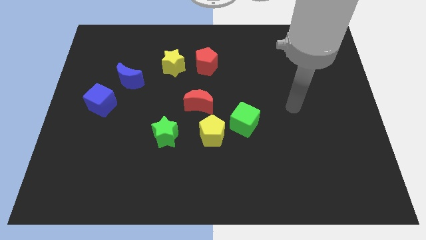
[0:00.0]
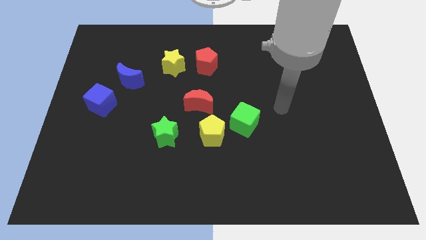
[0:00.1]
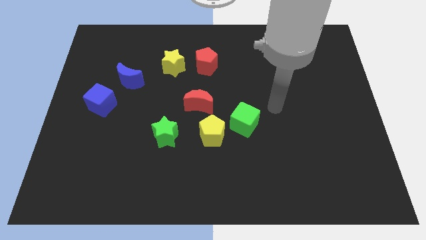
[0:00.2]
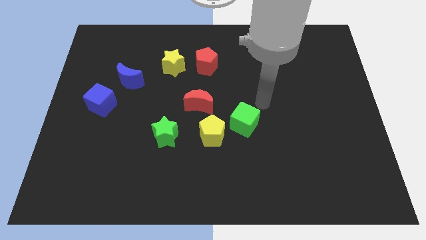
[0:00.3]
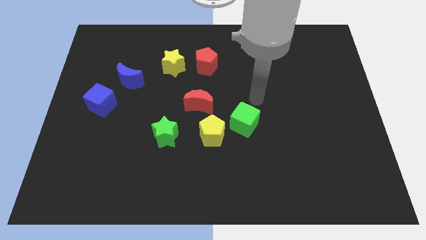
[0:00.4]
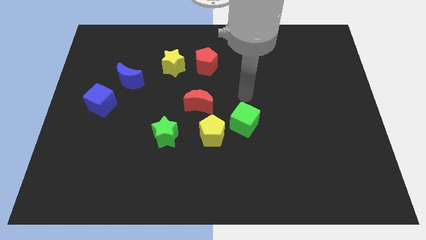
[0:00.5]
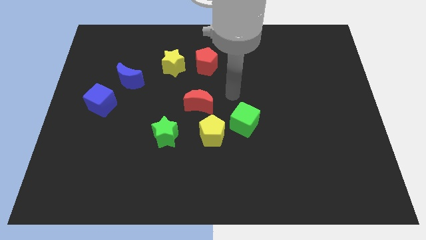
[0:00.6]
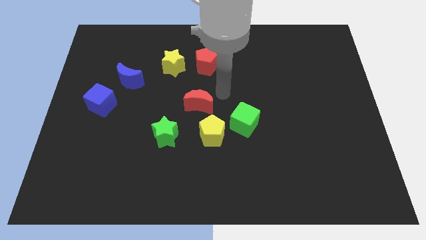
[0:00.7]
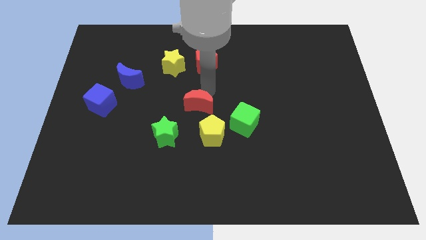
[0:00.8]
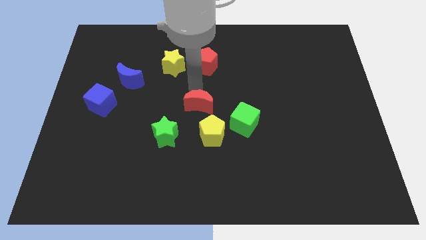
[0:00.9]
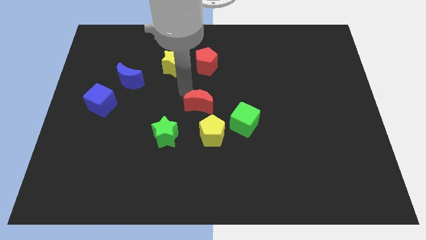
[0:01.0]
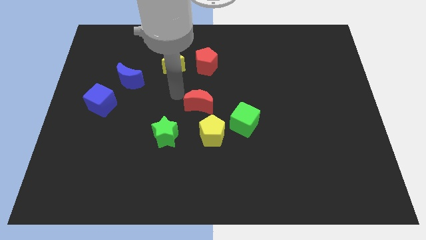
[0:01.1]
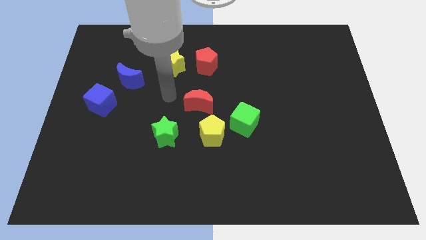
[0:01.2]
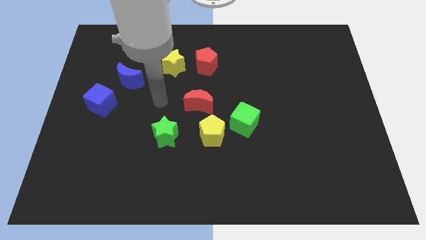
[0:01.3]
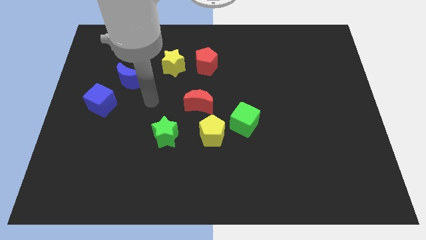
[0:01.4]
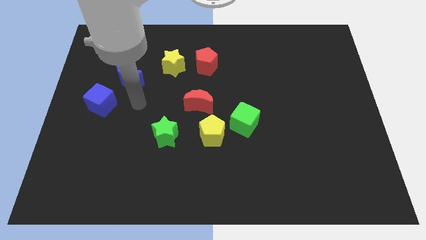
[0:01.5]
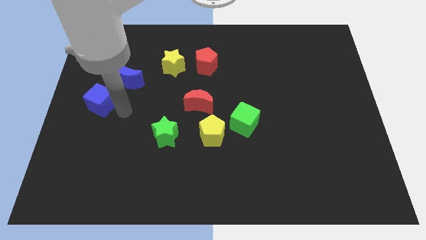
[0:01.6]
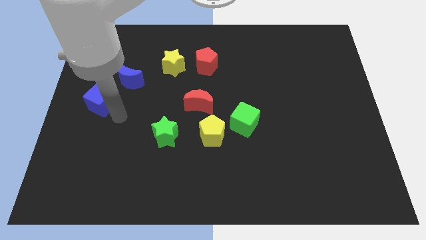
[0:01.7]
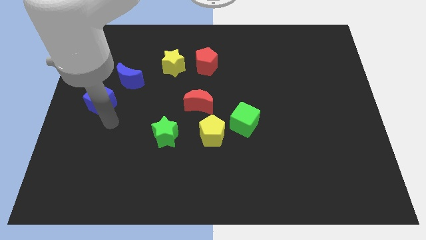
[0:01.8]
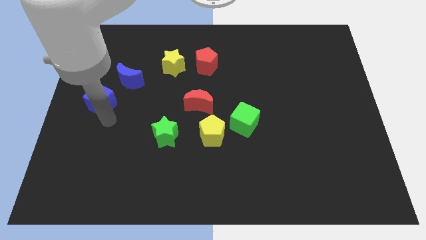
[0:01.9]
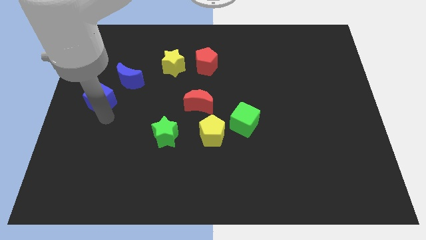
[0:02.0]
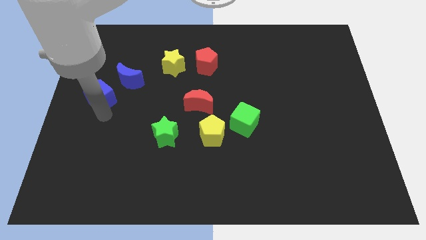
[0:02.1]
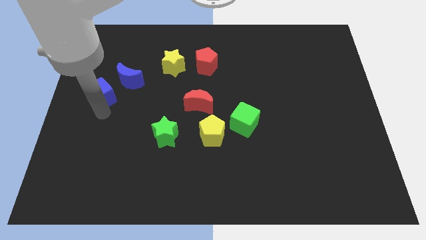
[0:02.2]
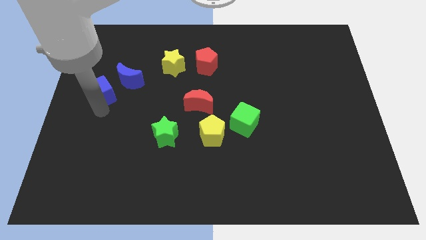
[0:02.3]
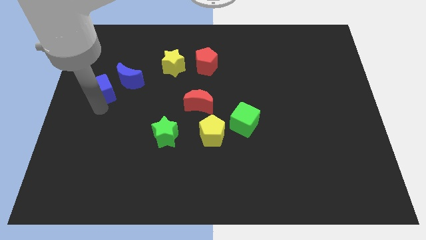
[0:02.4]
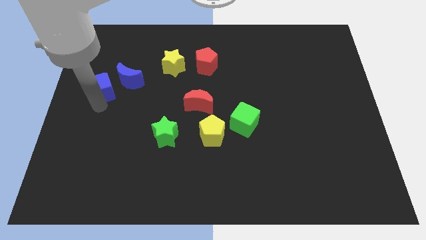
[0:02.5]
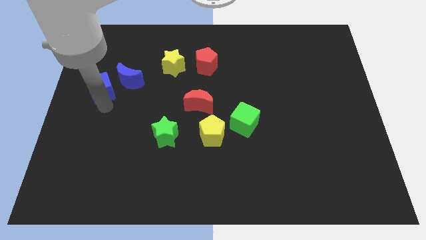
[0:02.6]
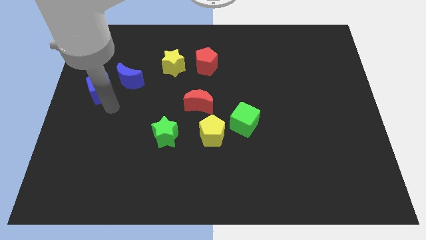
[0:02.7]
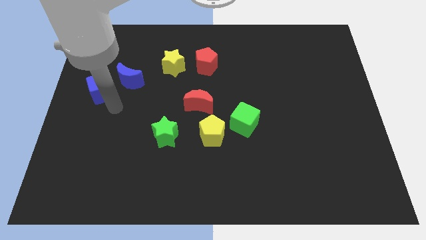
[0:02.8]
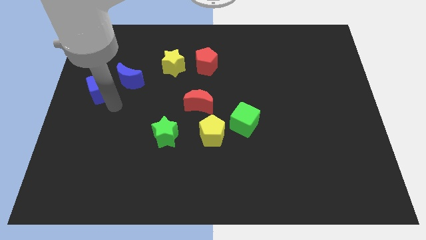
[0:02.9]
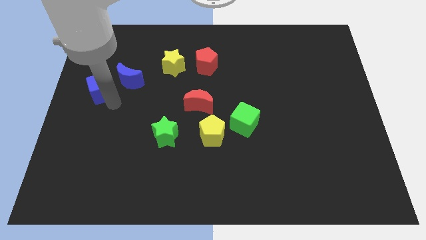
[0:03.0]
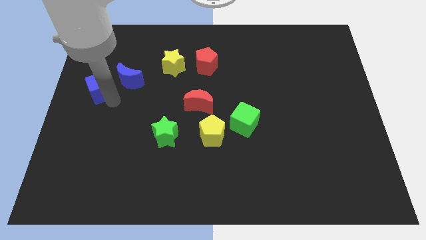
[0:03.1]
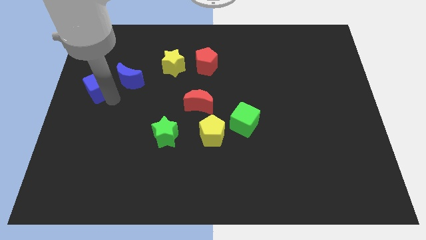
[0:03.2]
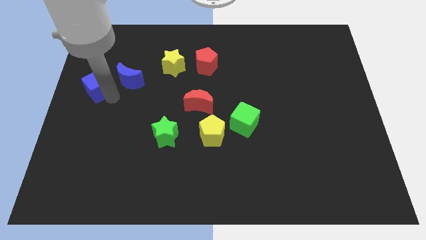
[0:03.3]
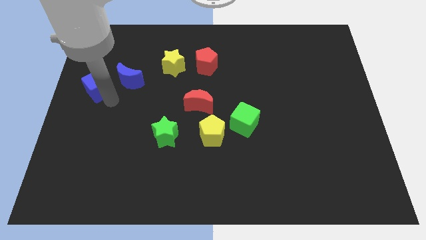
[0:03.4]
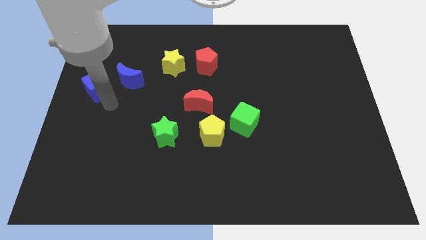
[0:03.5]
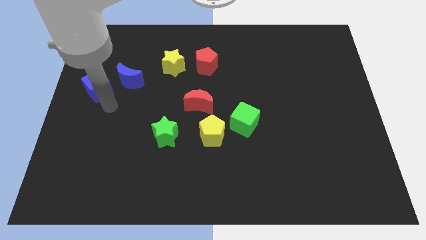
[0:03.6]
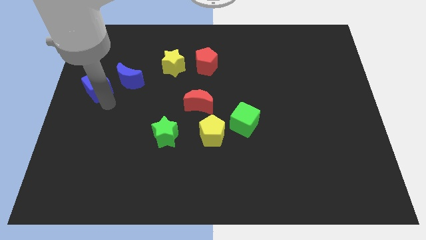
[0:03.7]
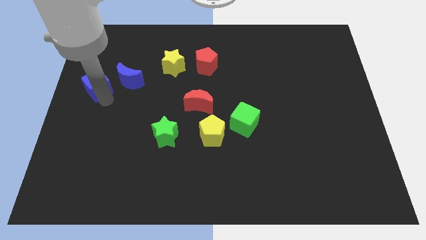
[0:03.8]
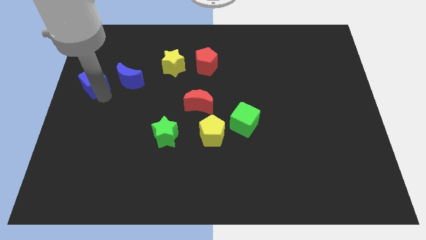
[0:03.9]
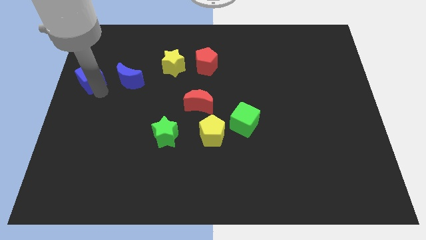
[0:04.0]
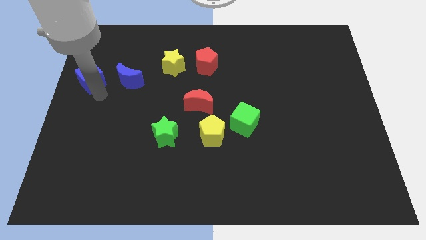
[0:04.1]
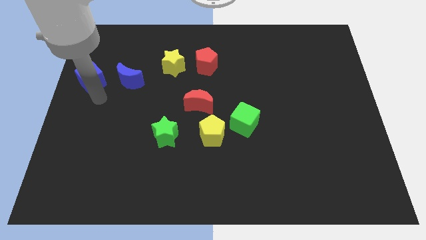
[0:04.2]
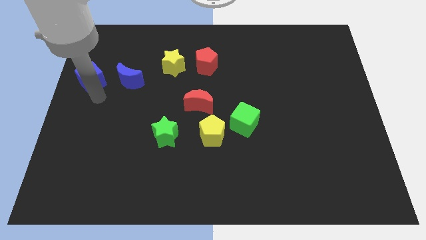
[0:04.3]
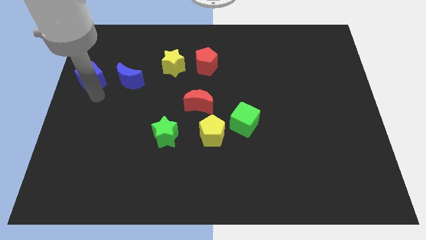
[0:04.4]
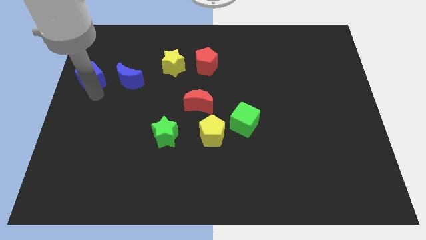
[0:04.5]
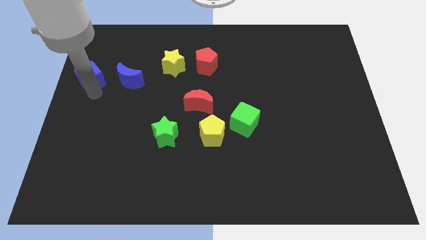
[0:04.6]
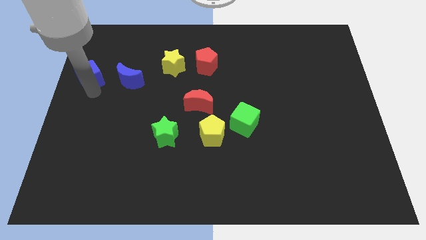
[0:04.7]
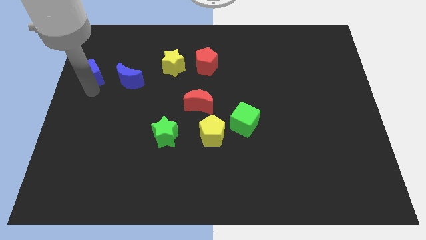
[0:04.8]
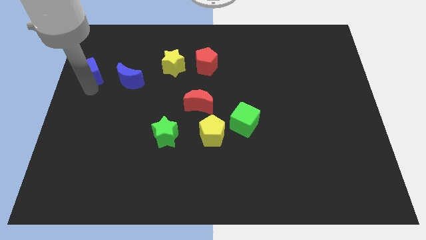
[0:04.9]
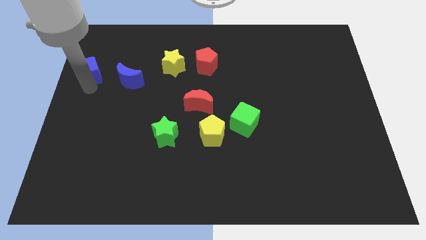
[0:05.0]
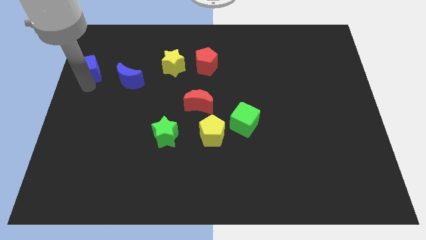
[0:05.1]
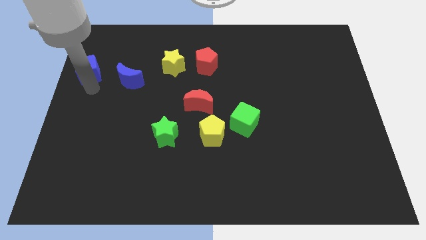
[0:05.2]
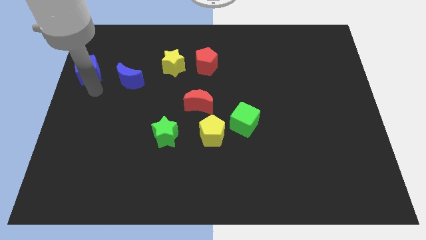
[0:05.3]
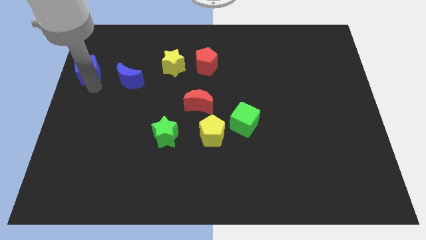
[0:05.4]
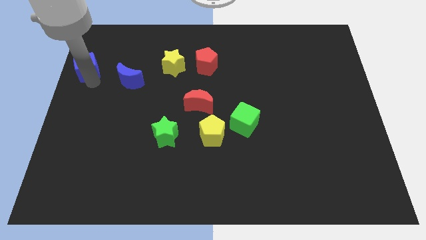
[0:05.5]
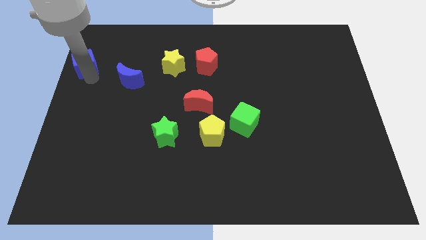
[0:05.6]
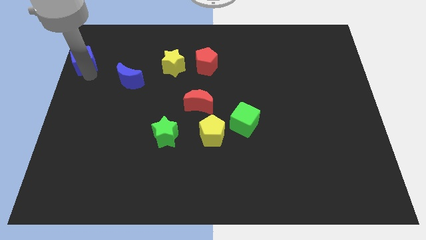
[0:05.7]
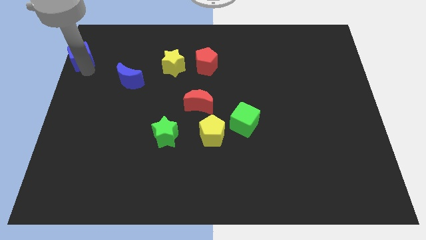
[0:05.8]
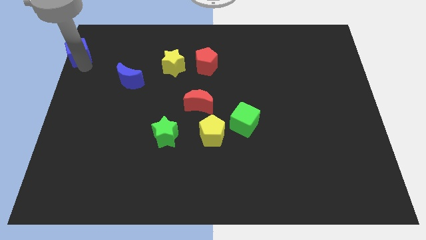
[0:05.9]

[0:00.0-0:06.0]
slide the blue cube to the top left
